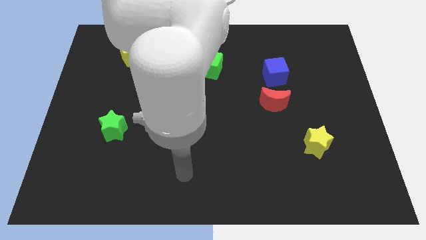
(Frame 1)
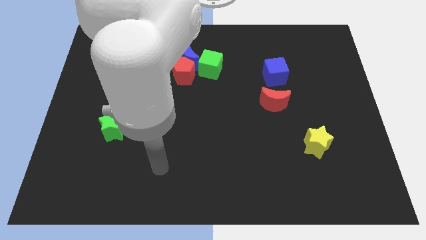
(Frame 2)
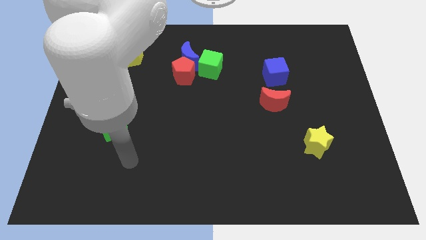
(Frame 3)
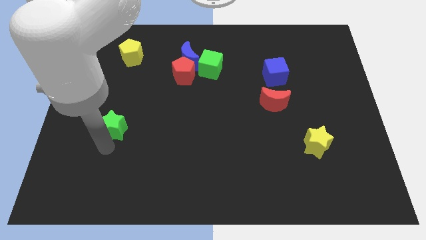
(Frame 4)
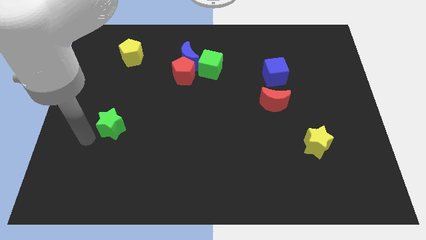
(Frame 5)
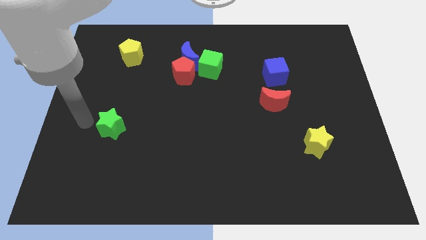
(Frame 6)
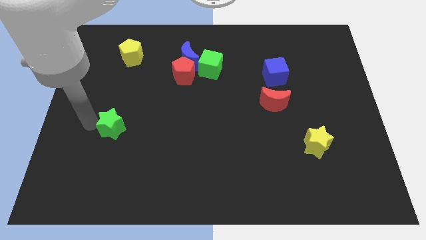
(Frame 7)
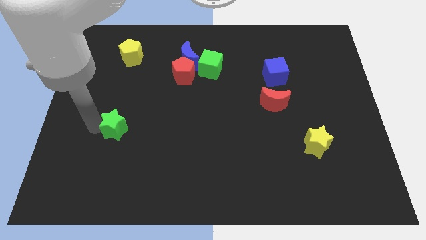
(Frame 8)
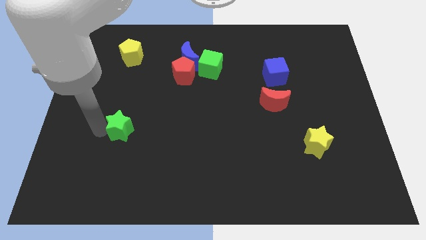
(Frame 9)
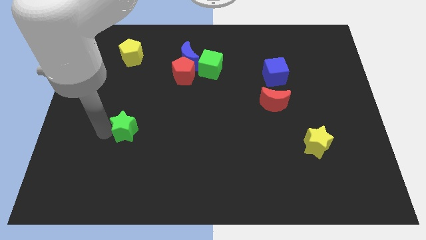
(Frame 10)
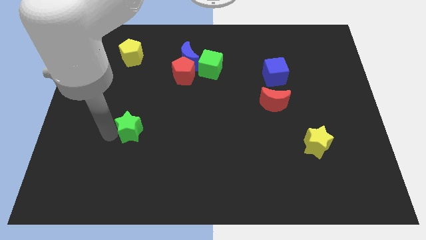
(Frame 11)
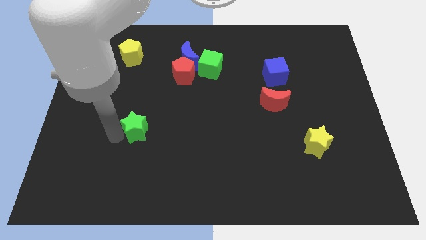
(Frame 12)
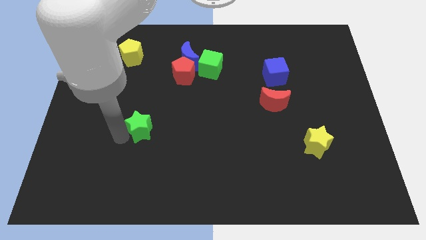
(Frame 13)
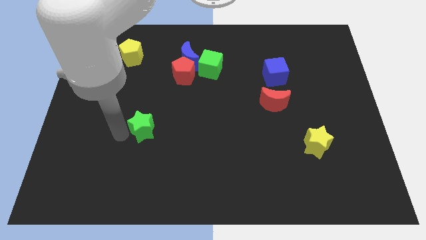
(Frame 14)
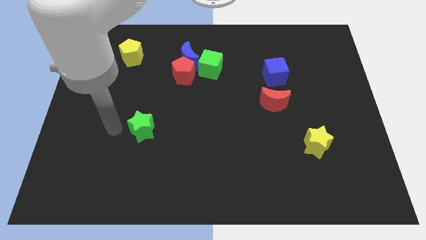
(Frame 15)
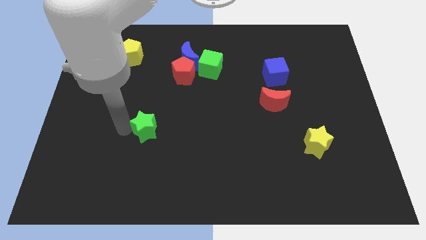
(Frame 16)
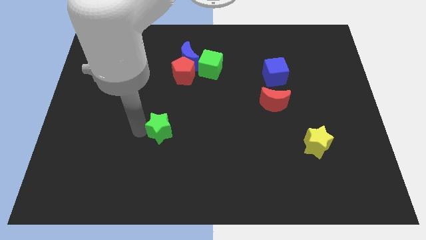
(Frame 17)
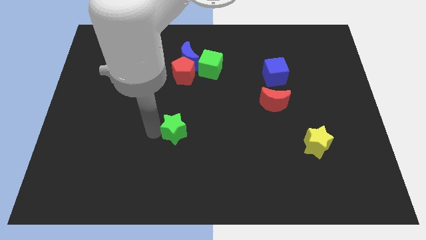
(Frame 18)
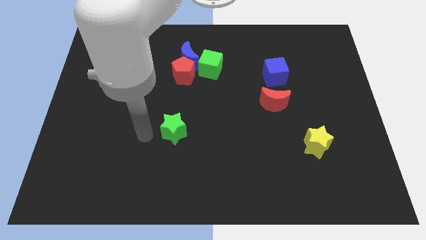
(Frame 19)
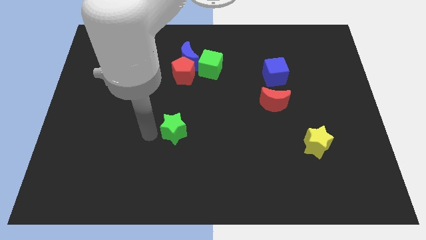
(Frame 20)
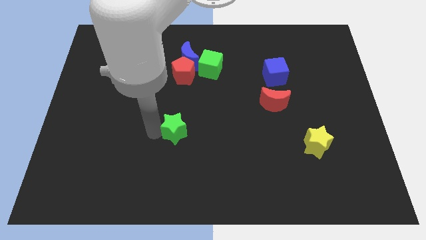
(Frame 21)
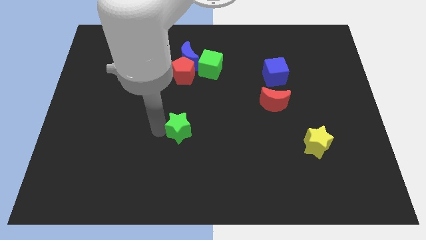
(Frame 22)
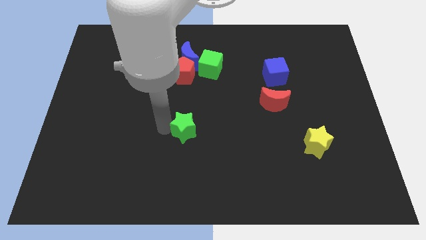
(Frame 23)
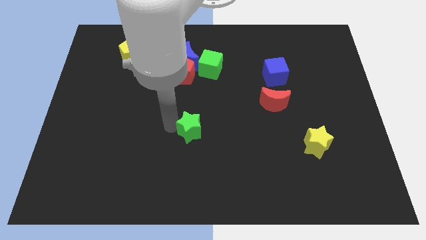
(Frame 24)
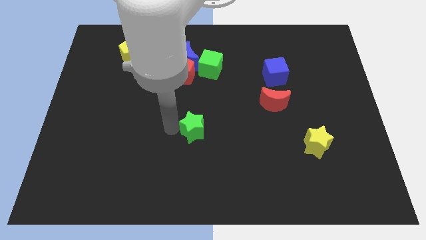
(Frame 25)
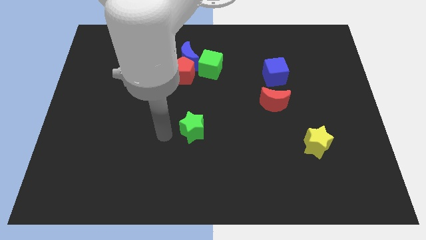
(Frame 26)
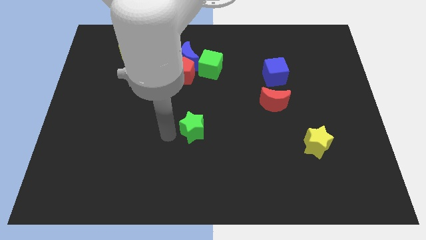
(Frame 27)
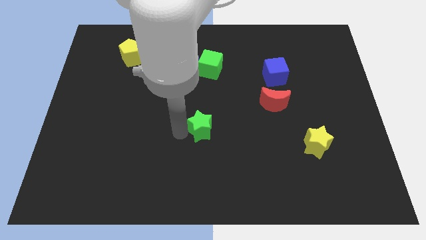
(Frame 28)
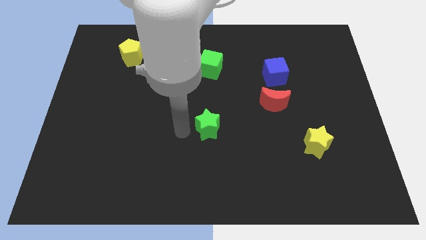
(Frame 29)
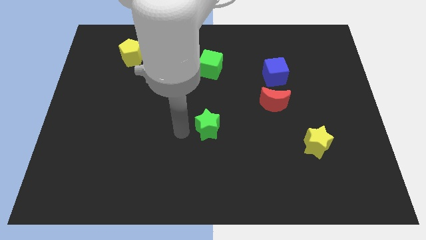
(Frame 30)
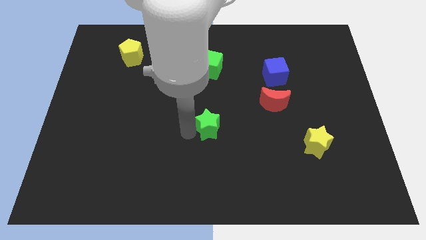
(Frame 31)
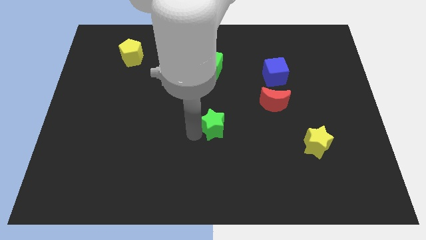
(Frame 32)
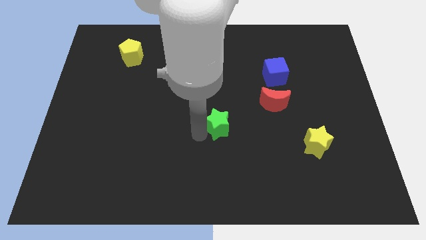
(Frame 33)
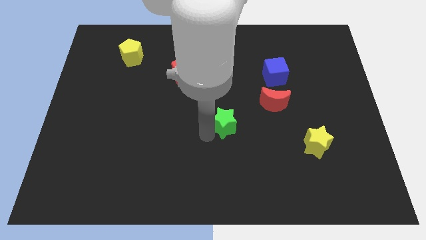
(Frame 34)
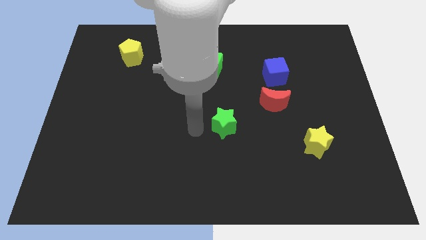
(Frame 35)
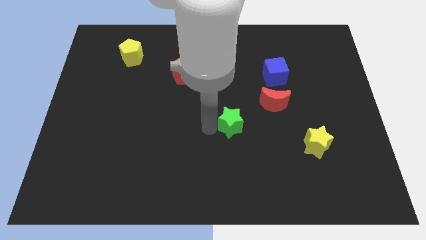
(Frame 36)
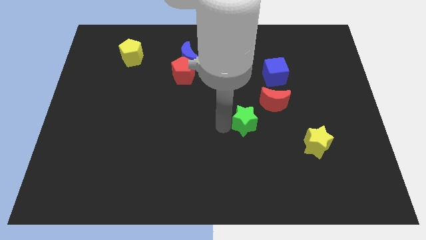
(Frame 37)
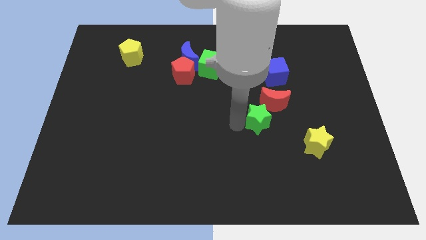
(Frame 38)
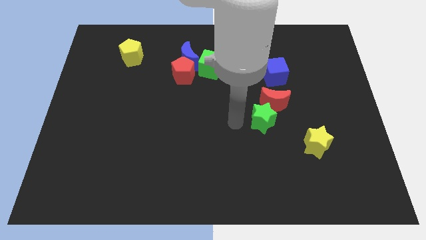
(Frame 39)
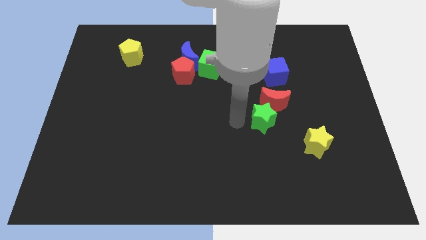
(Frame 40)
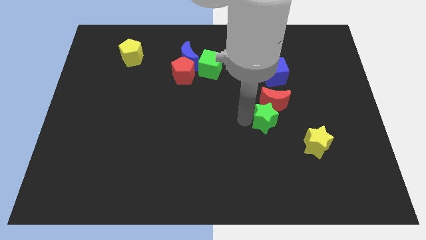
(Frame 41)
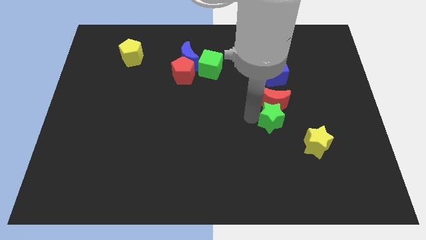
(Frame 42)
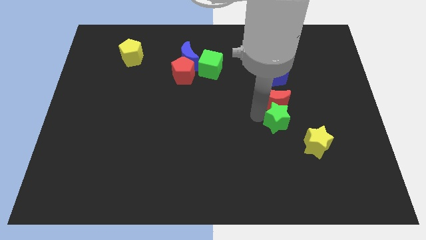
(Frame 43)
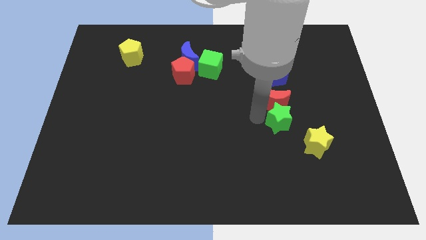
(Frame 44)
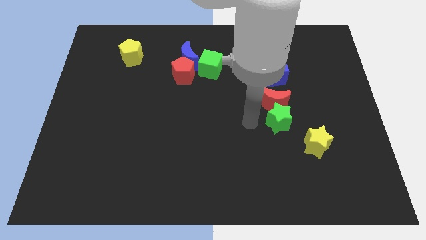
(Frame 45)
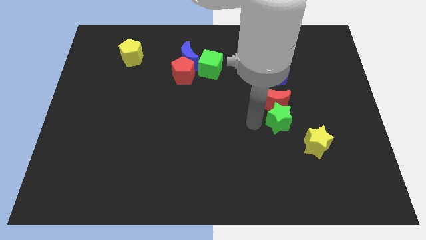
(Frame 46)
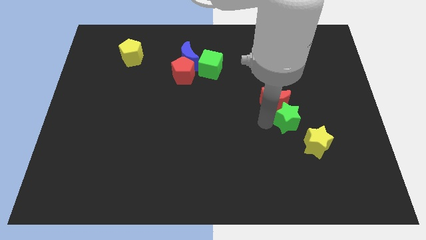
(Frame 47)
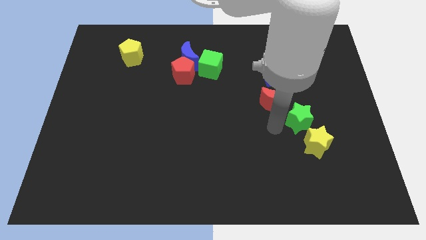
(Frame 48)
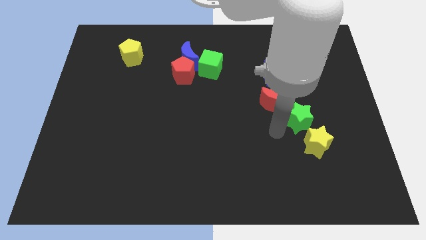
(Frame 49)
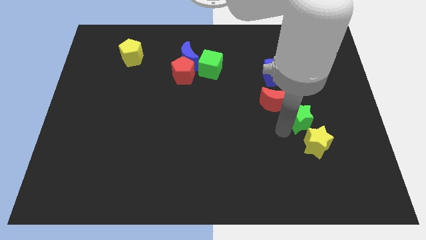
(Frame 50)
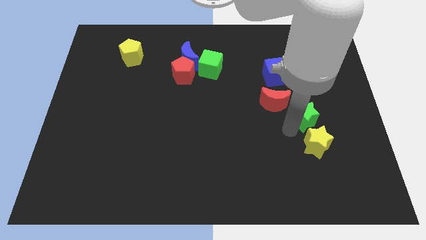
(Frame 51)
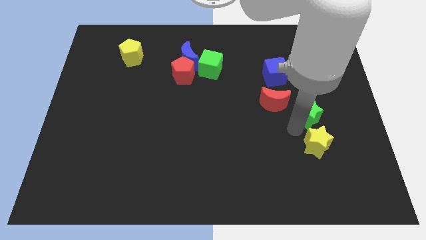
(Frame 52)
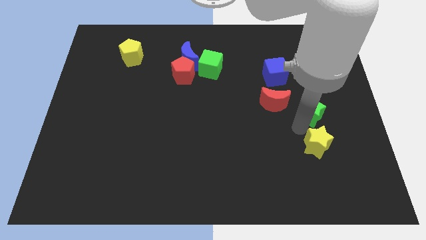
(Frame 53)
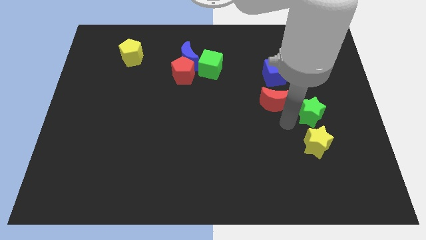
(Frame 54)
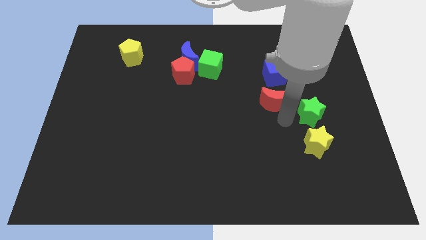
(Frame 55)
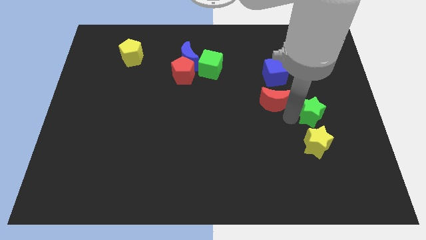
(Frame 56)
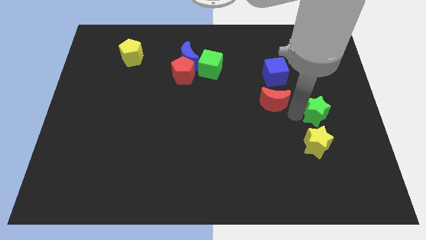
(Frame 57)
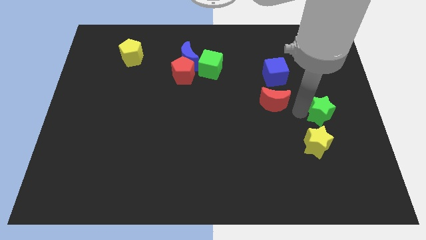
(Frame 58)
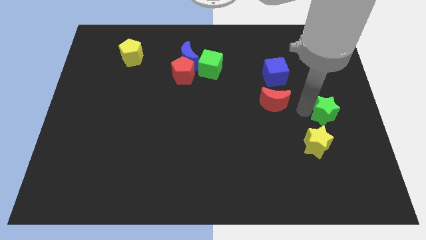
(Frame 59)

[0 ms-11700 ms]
put the green star to the center right

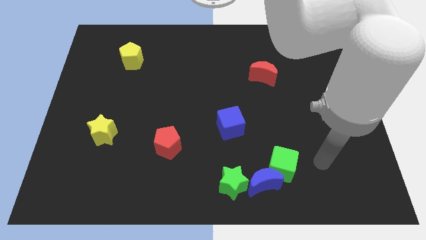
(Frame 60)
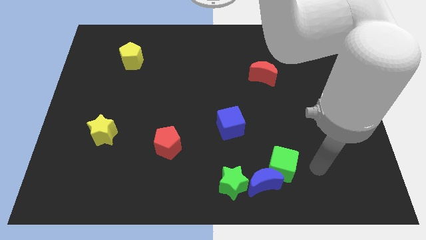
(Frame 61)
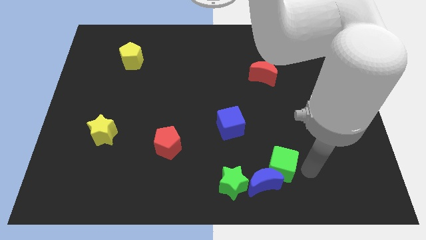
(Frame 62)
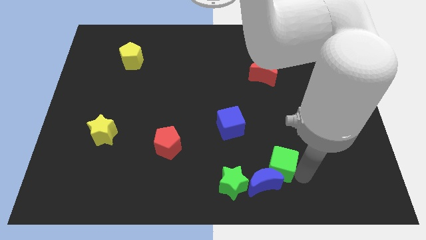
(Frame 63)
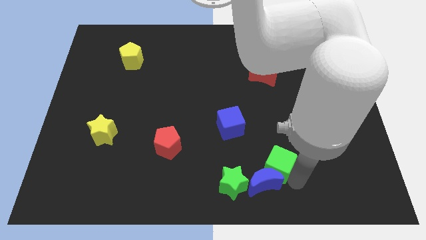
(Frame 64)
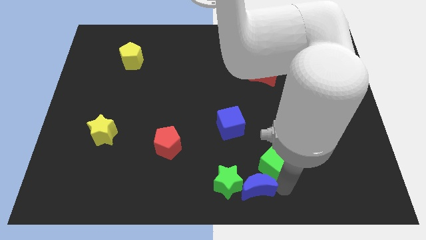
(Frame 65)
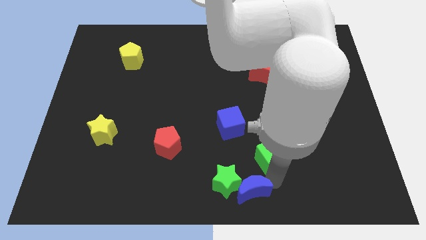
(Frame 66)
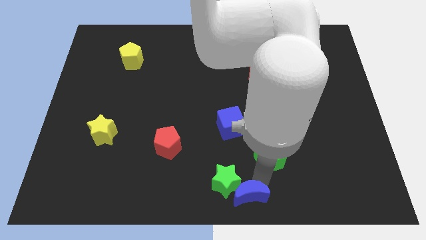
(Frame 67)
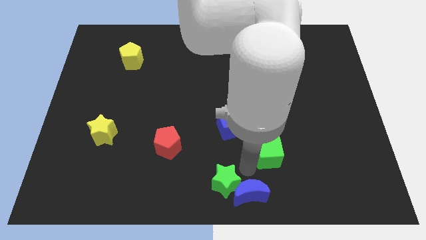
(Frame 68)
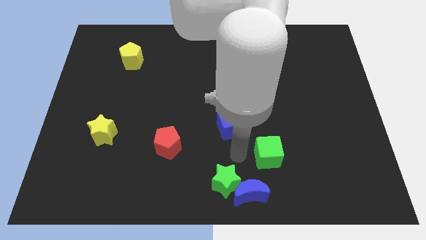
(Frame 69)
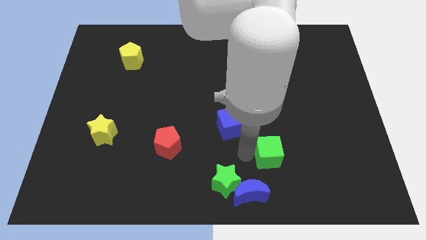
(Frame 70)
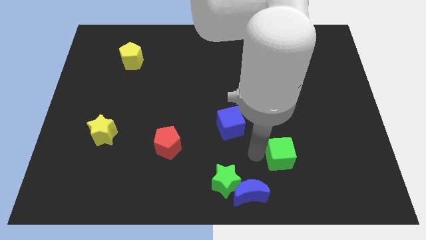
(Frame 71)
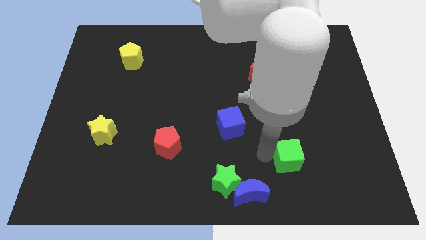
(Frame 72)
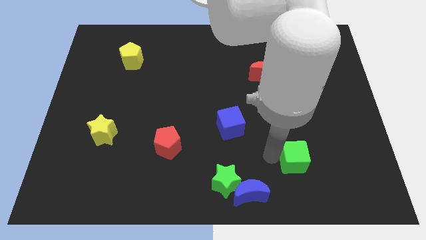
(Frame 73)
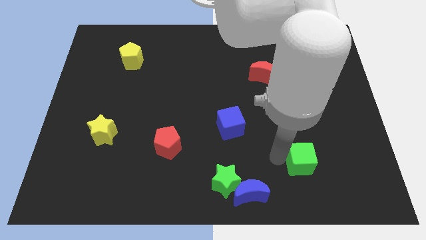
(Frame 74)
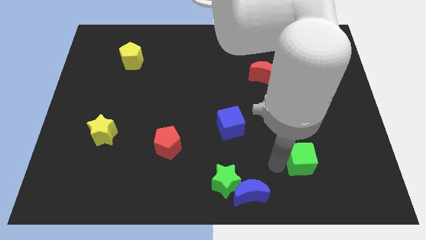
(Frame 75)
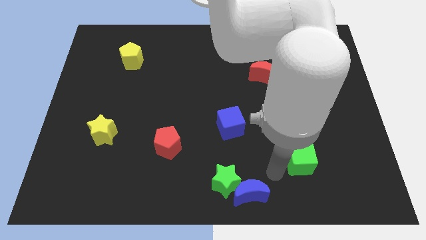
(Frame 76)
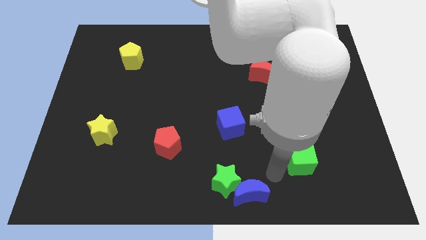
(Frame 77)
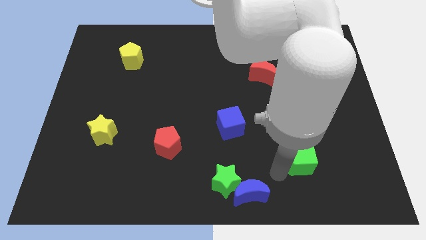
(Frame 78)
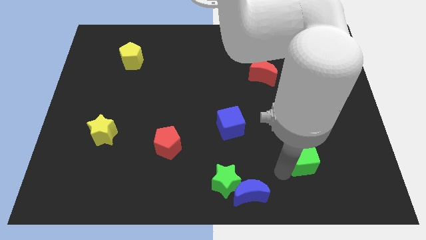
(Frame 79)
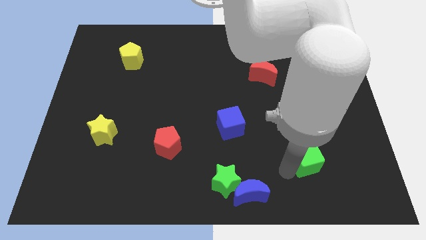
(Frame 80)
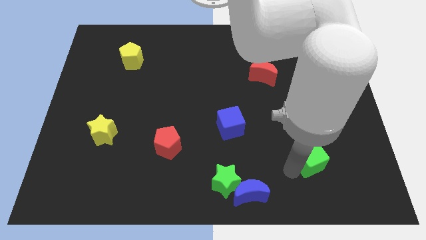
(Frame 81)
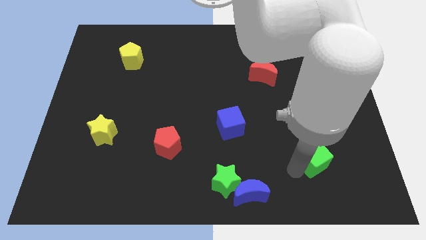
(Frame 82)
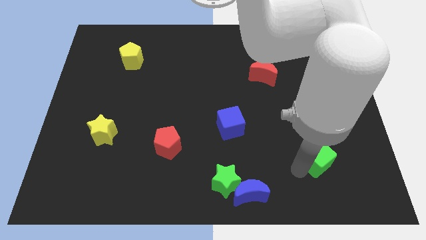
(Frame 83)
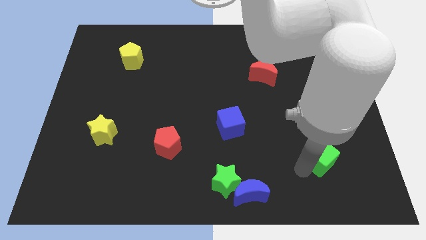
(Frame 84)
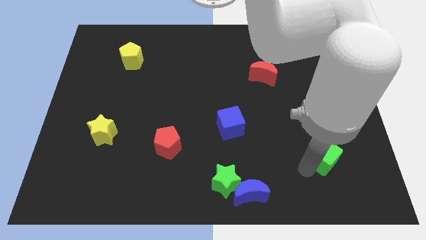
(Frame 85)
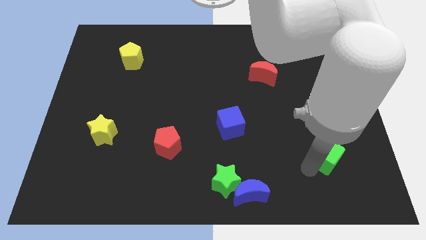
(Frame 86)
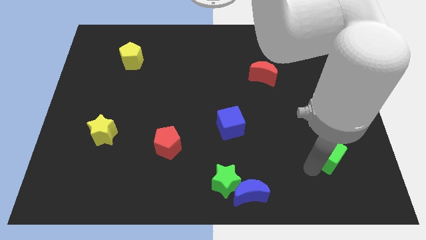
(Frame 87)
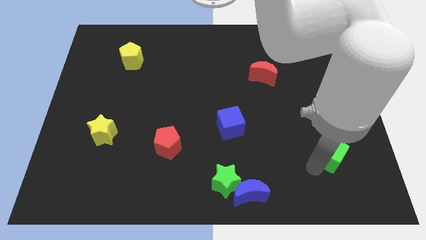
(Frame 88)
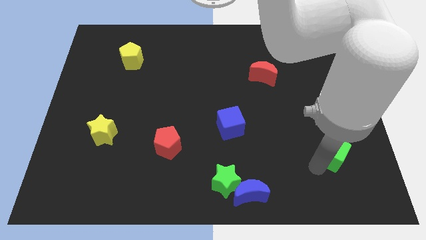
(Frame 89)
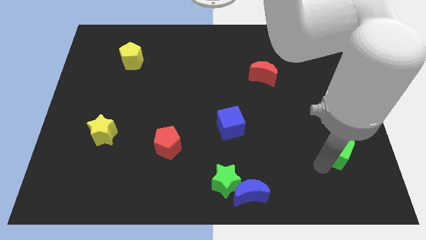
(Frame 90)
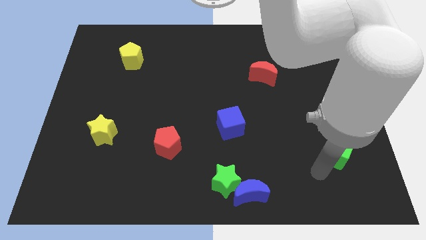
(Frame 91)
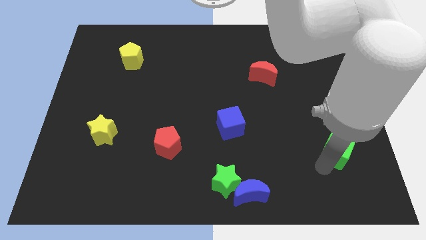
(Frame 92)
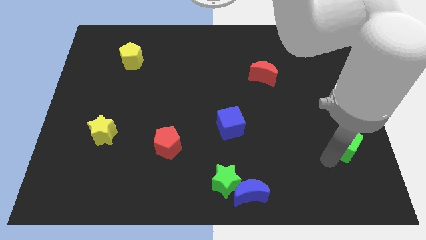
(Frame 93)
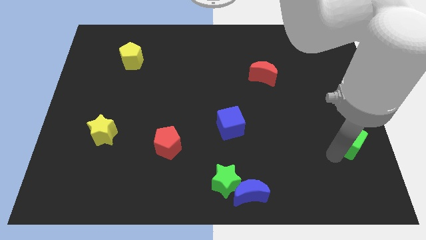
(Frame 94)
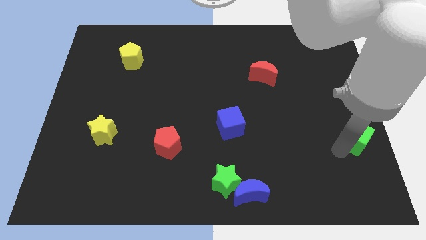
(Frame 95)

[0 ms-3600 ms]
push the green cube to the right side
